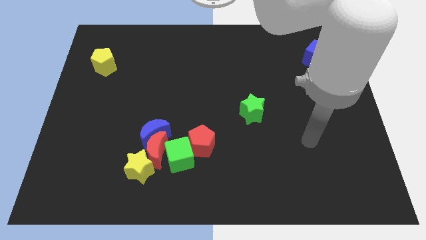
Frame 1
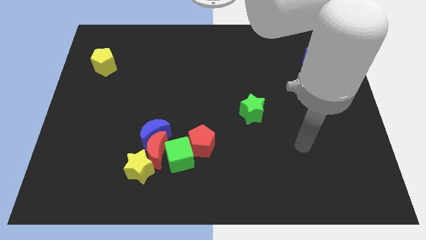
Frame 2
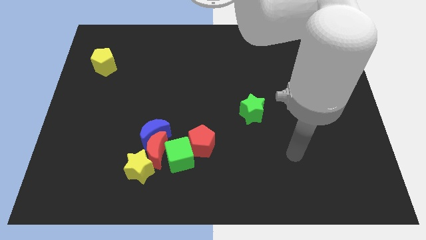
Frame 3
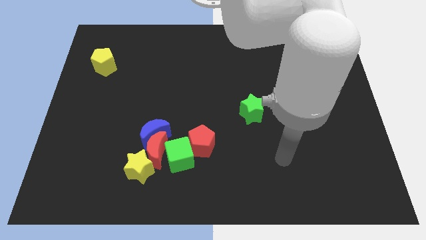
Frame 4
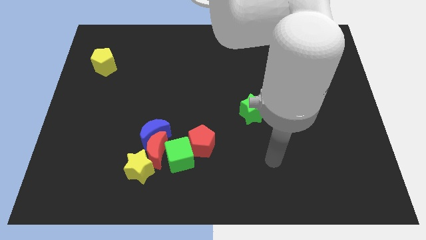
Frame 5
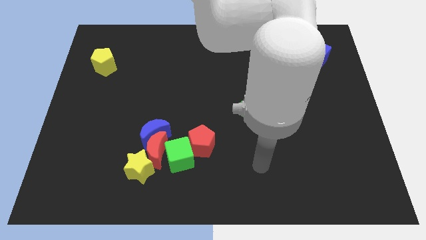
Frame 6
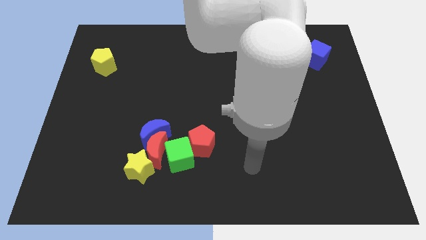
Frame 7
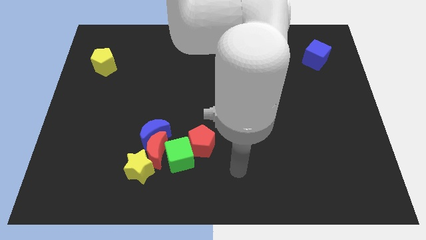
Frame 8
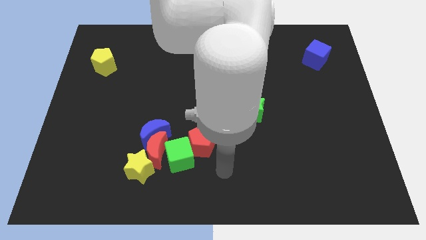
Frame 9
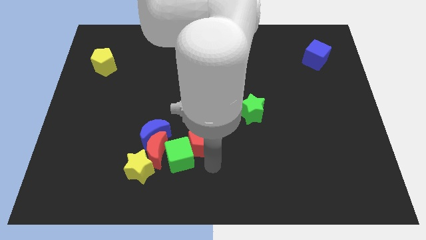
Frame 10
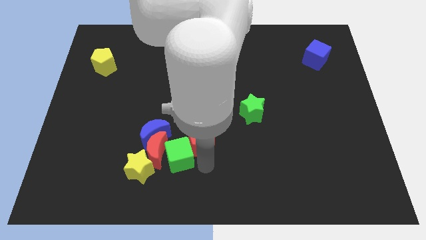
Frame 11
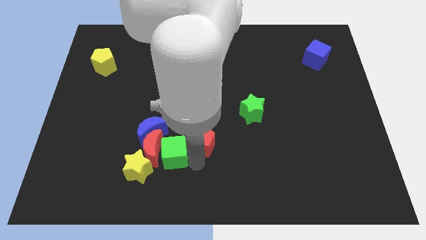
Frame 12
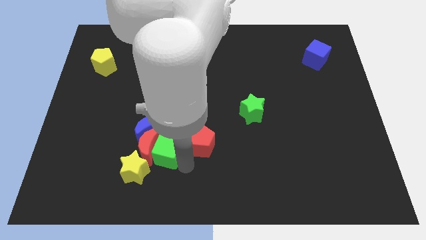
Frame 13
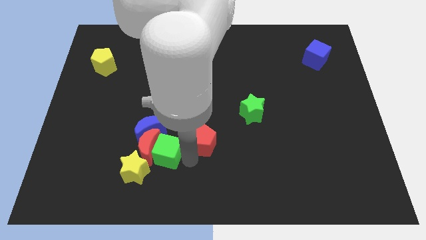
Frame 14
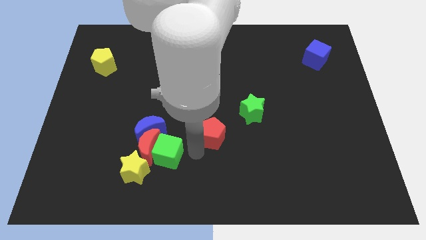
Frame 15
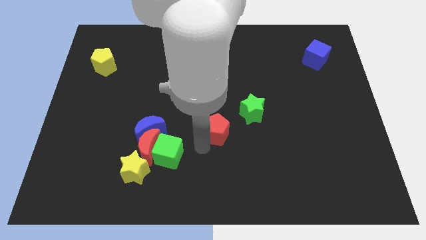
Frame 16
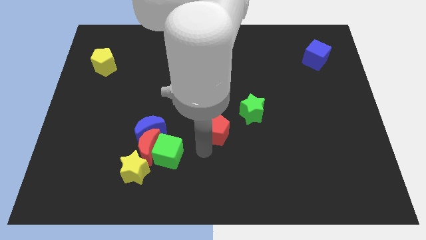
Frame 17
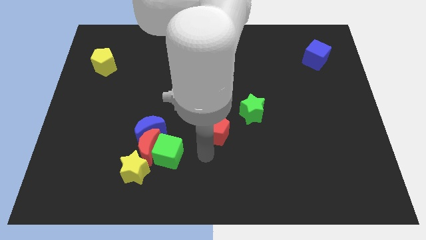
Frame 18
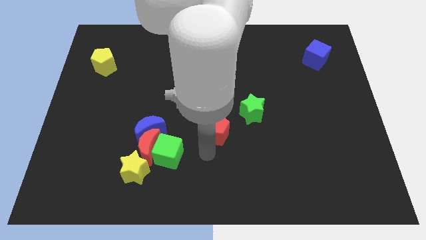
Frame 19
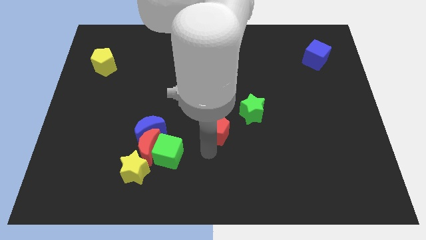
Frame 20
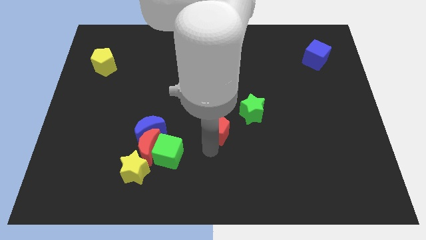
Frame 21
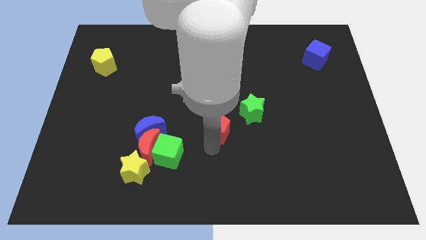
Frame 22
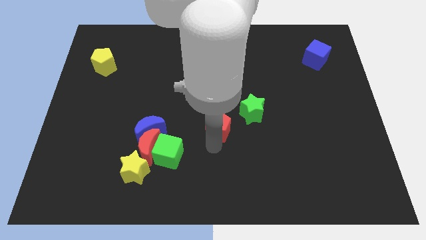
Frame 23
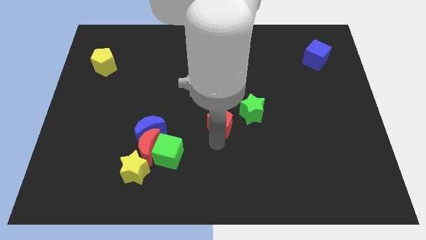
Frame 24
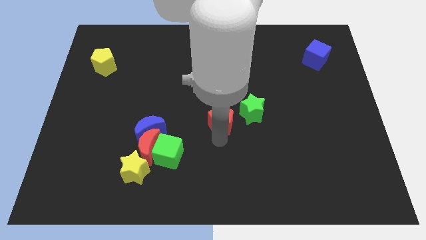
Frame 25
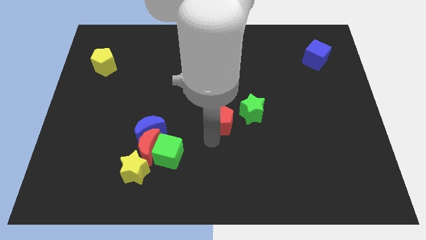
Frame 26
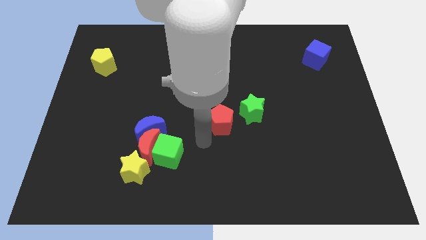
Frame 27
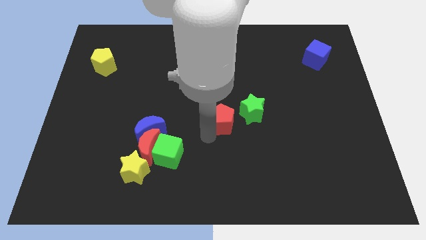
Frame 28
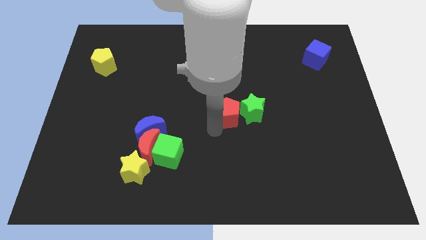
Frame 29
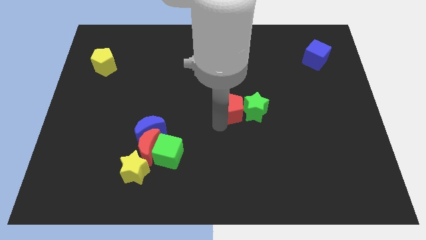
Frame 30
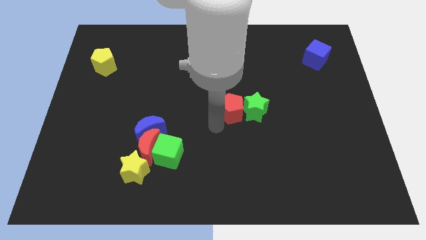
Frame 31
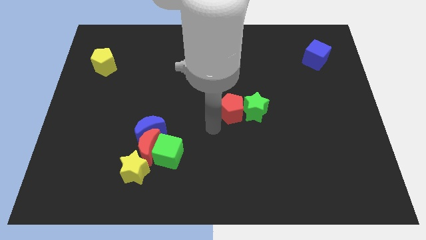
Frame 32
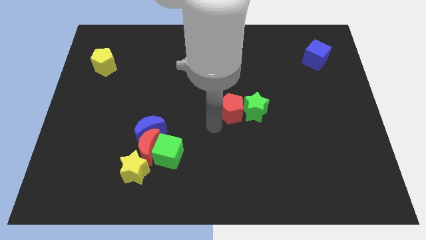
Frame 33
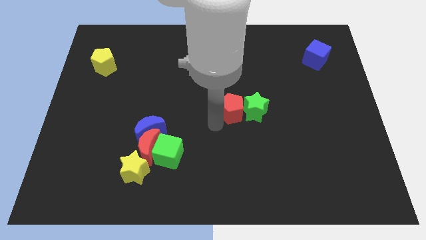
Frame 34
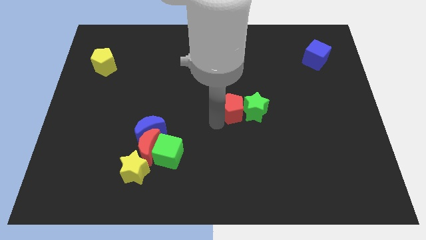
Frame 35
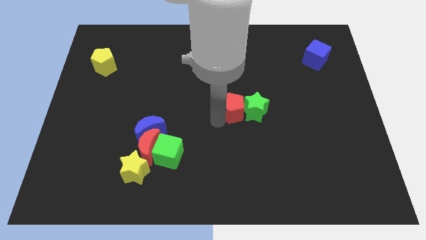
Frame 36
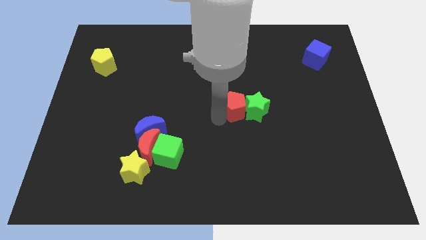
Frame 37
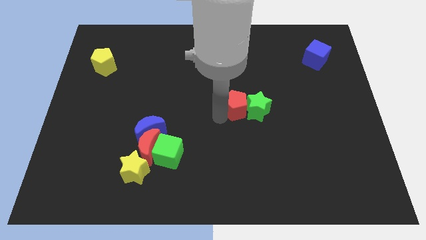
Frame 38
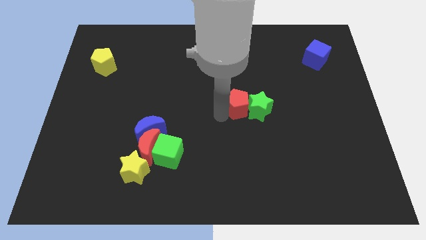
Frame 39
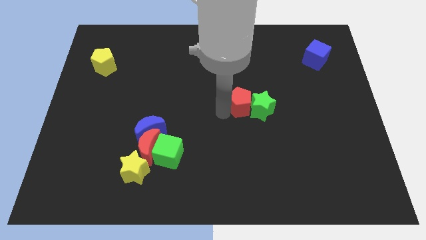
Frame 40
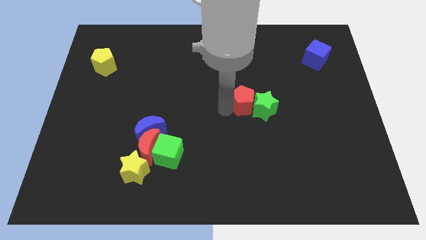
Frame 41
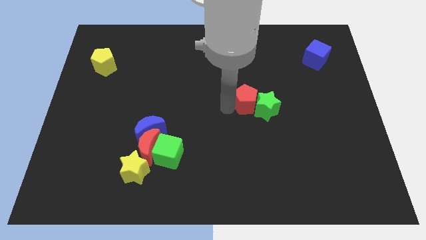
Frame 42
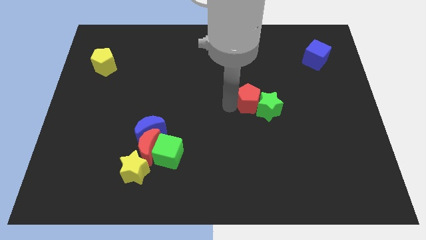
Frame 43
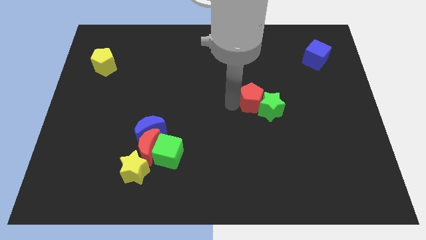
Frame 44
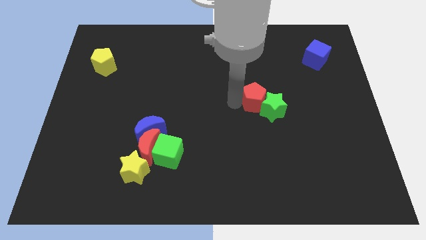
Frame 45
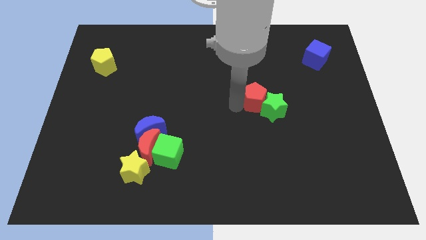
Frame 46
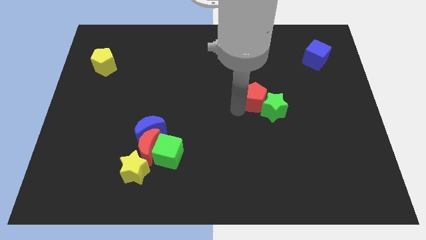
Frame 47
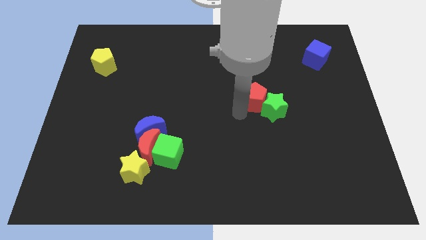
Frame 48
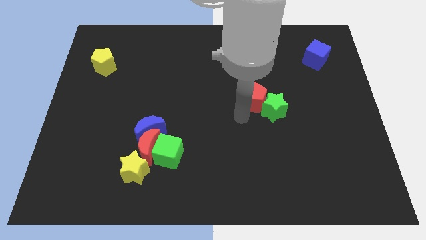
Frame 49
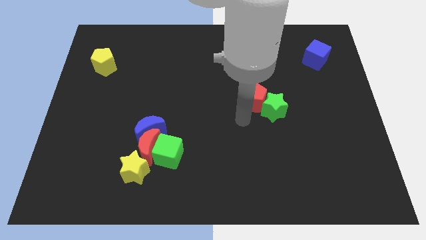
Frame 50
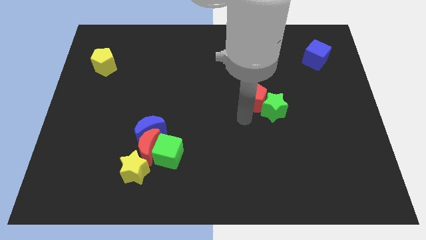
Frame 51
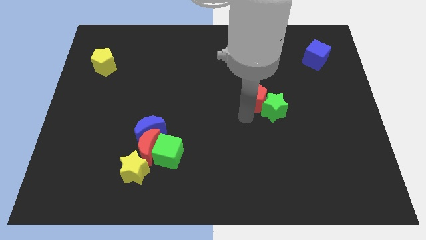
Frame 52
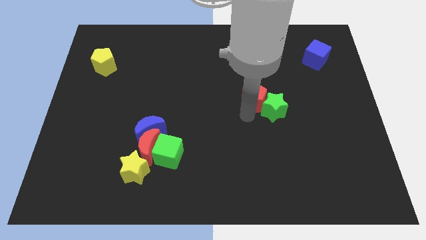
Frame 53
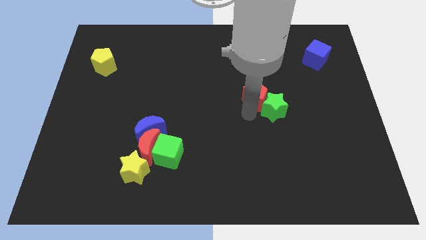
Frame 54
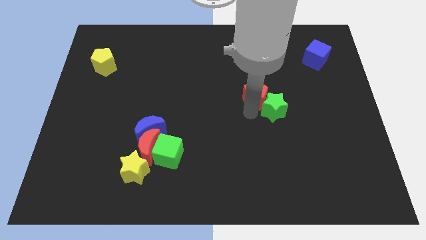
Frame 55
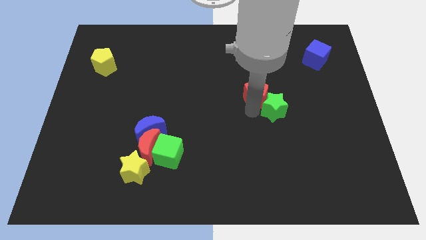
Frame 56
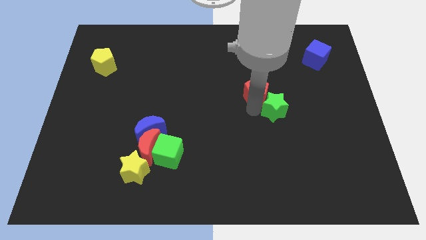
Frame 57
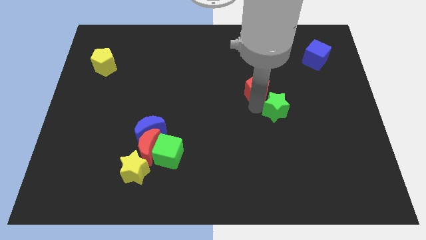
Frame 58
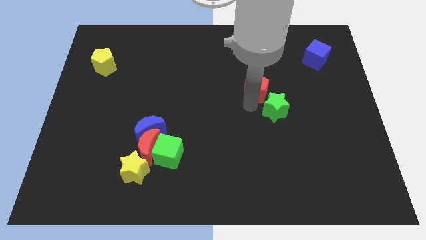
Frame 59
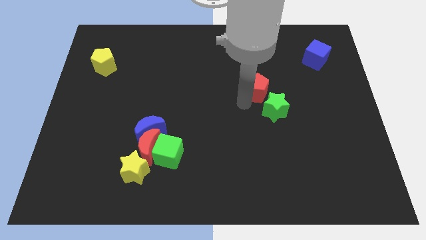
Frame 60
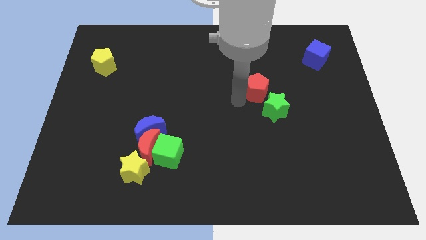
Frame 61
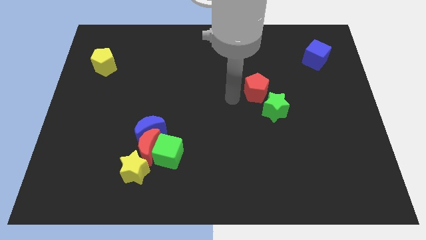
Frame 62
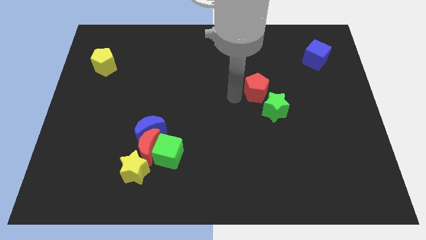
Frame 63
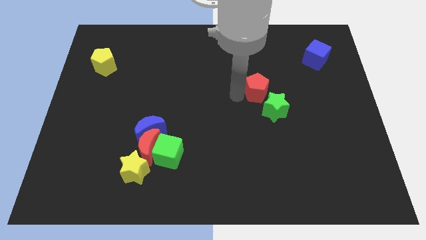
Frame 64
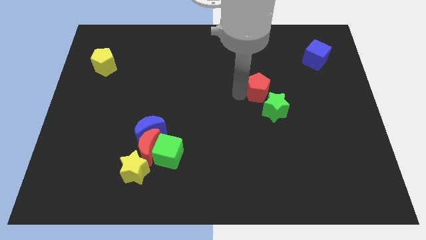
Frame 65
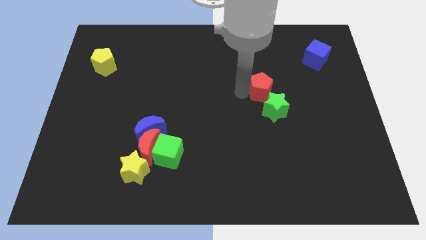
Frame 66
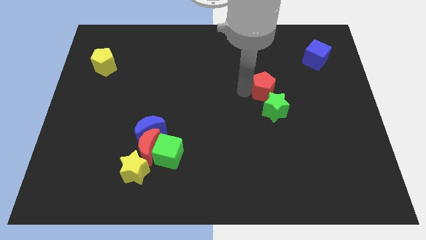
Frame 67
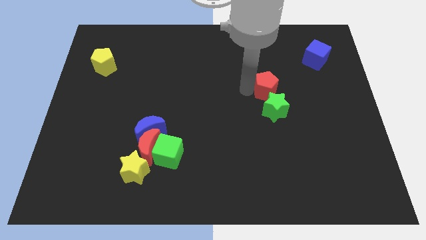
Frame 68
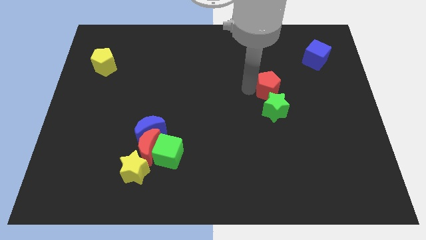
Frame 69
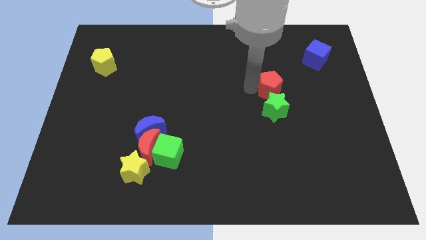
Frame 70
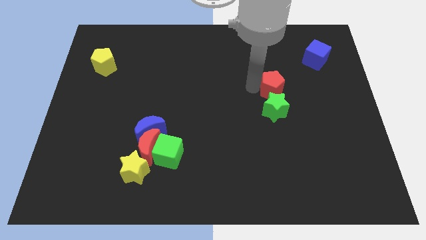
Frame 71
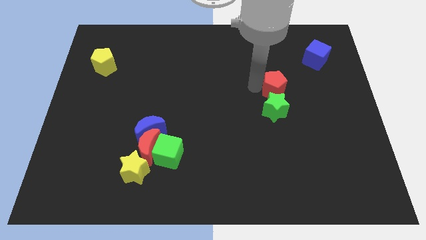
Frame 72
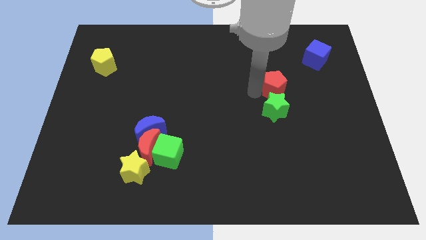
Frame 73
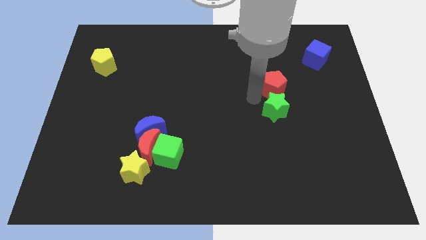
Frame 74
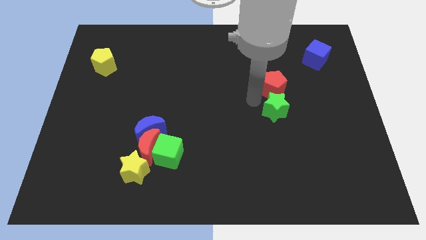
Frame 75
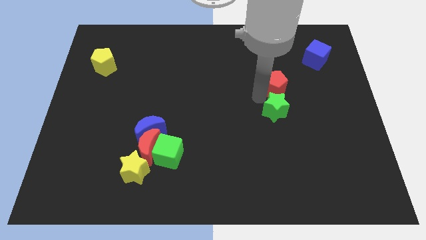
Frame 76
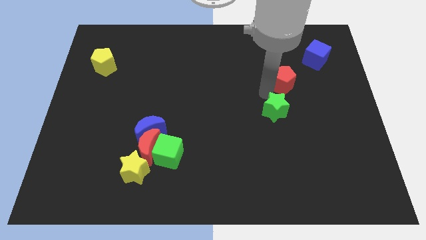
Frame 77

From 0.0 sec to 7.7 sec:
put the red pentagon diagonally down and to the left of the blue cube
